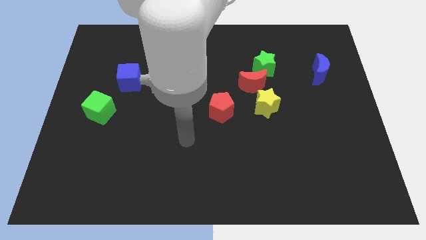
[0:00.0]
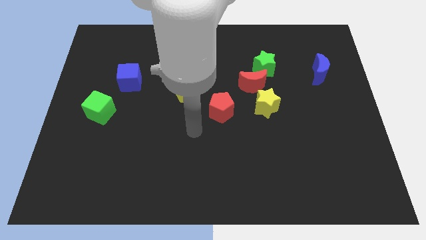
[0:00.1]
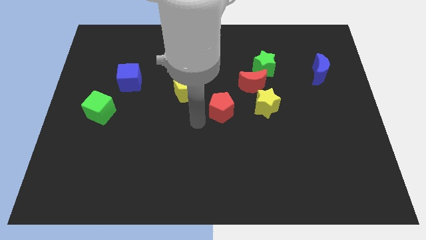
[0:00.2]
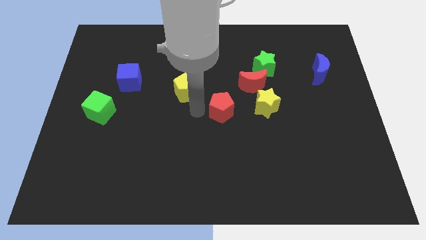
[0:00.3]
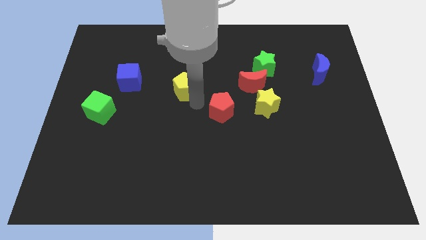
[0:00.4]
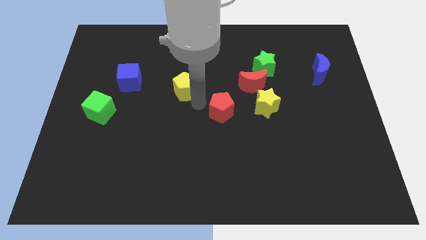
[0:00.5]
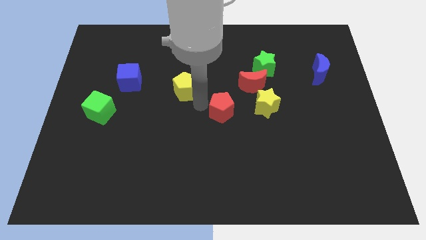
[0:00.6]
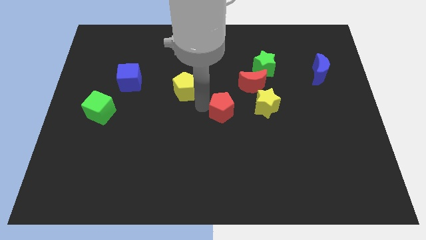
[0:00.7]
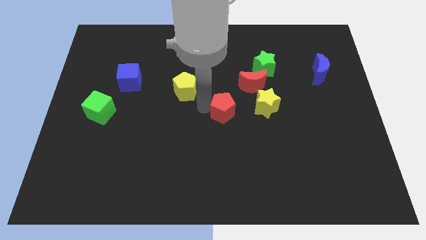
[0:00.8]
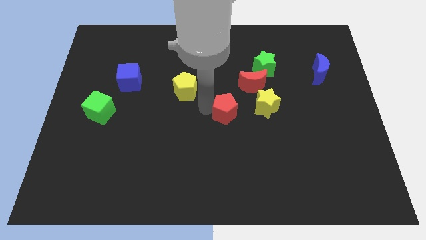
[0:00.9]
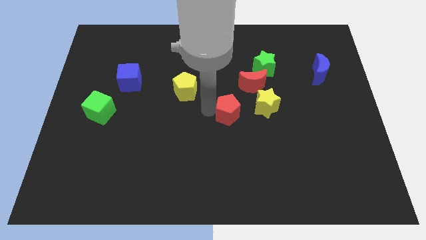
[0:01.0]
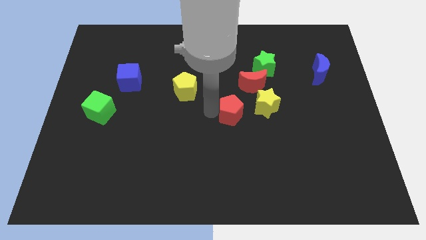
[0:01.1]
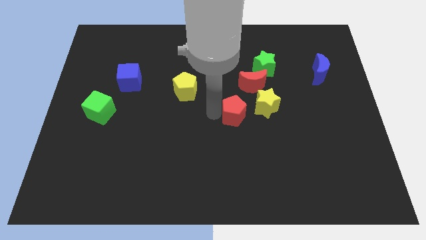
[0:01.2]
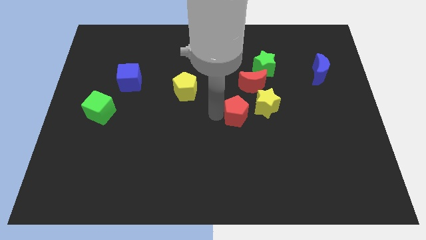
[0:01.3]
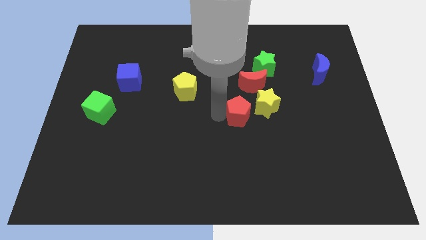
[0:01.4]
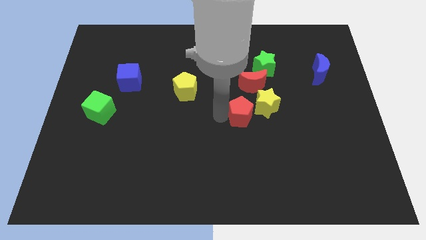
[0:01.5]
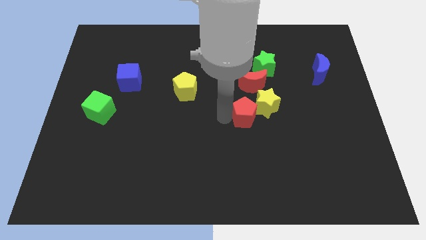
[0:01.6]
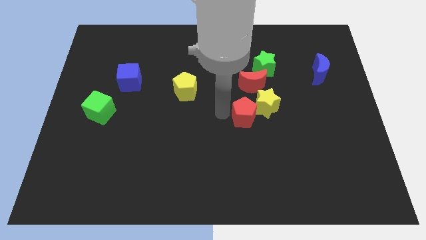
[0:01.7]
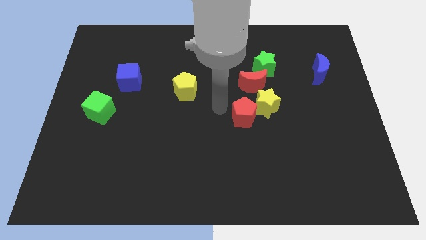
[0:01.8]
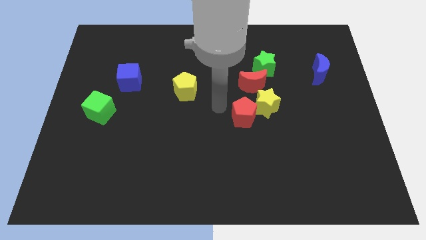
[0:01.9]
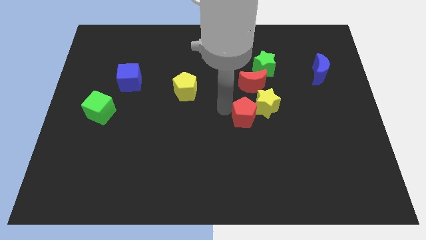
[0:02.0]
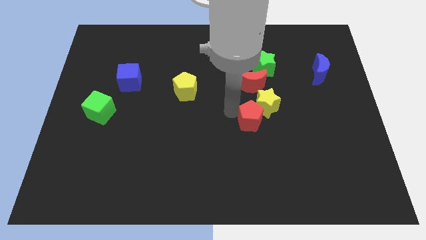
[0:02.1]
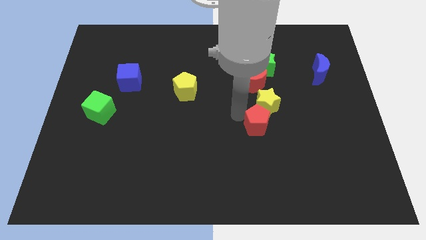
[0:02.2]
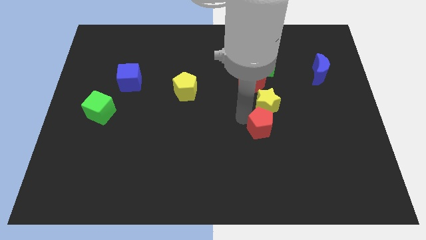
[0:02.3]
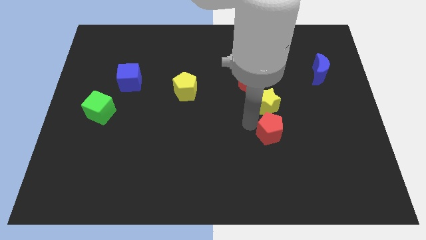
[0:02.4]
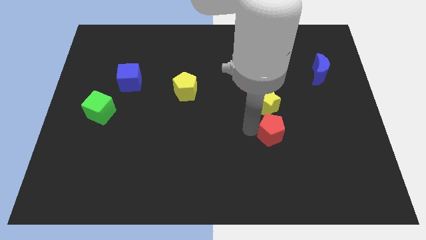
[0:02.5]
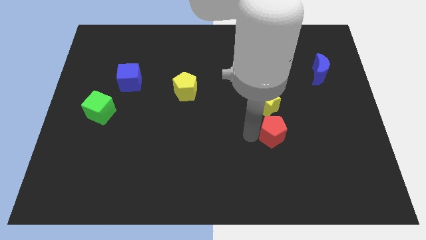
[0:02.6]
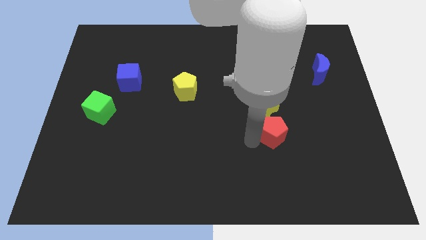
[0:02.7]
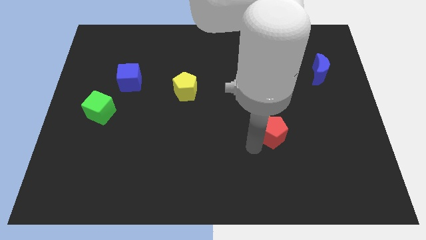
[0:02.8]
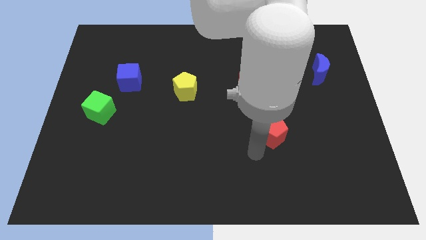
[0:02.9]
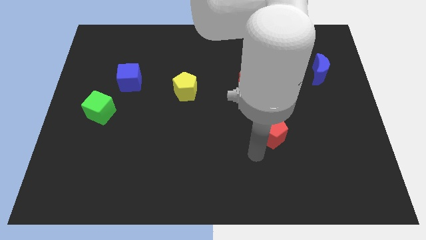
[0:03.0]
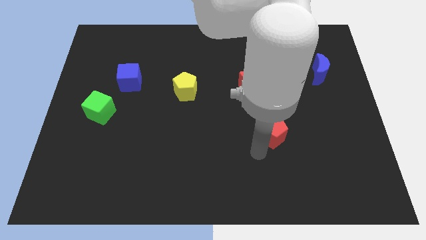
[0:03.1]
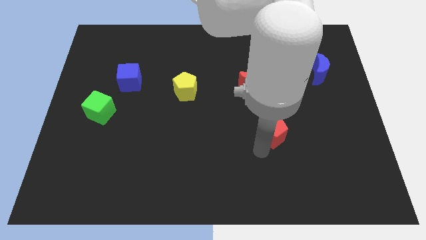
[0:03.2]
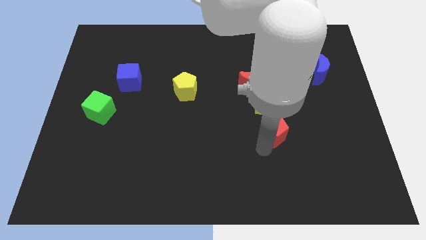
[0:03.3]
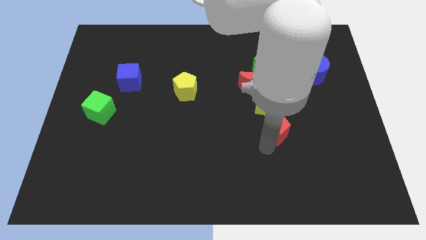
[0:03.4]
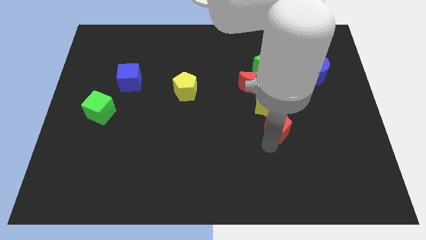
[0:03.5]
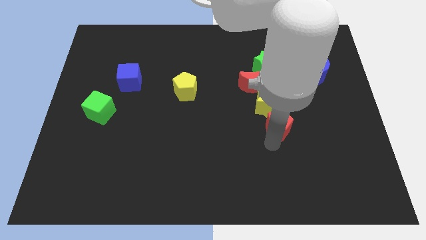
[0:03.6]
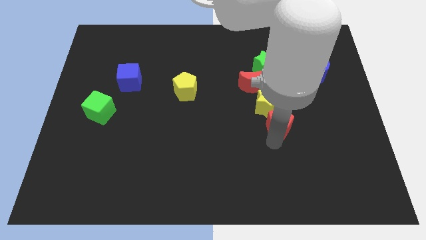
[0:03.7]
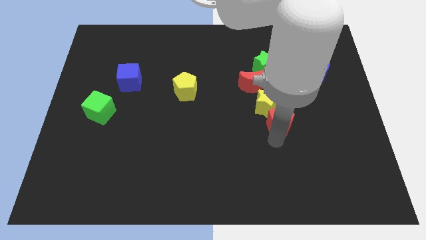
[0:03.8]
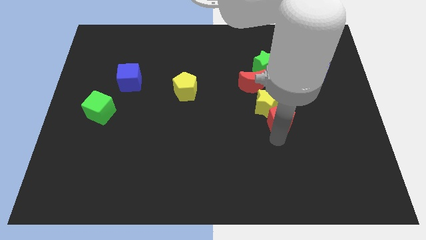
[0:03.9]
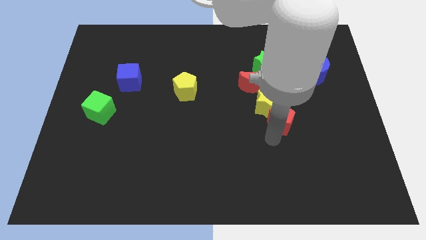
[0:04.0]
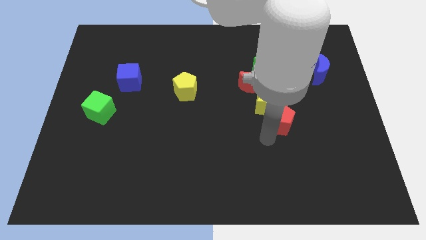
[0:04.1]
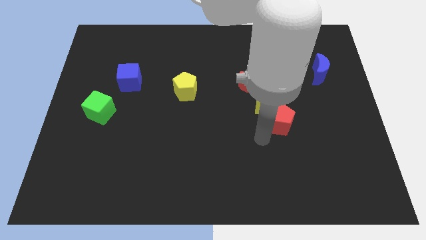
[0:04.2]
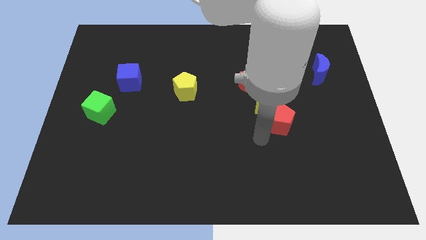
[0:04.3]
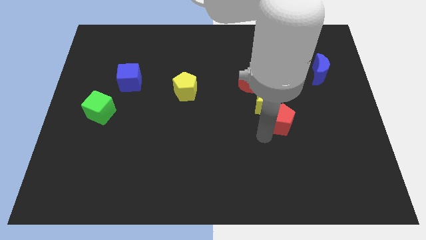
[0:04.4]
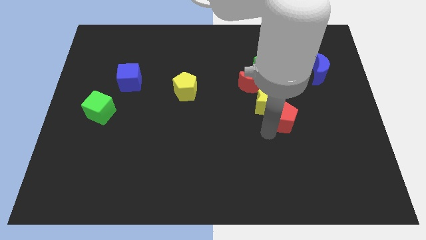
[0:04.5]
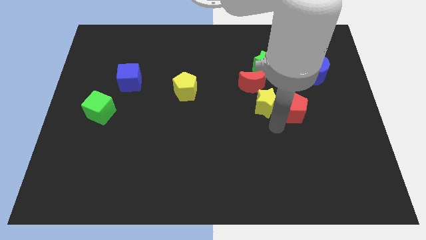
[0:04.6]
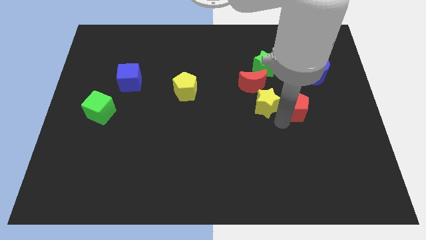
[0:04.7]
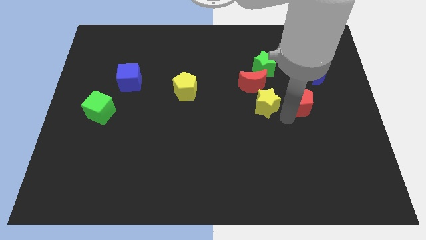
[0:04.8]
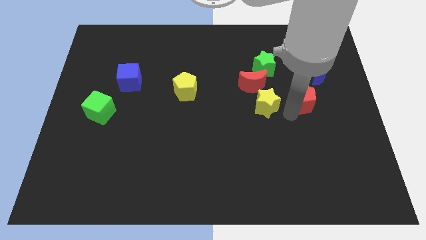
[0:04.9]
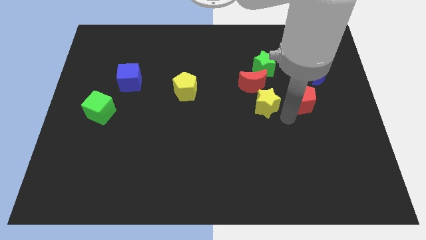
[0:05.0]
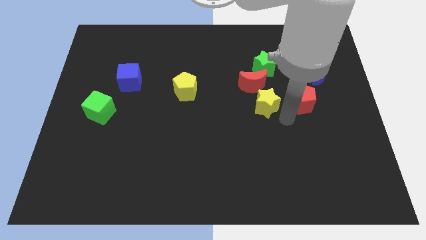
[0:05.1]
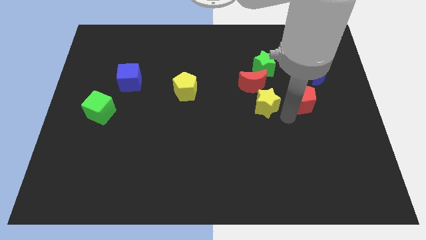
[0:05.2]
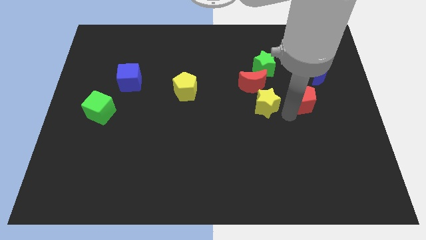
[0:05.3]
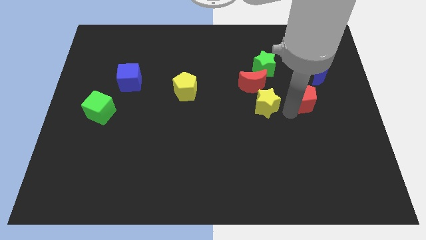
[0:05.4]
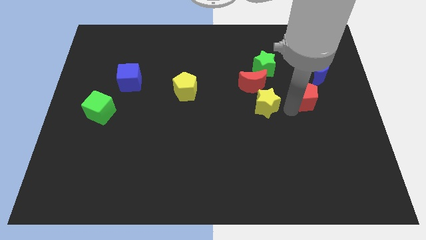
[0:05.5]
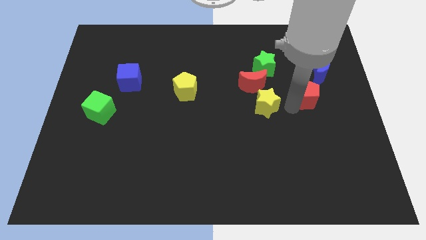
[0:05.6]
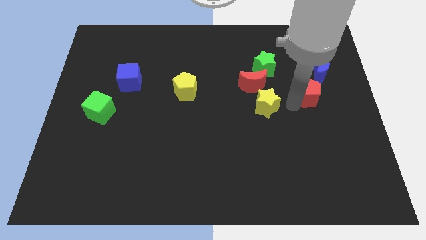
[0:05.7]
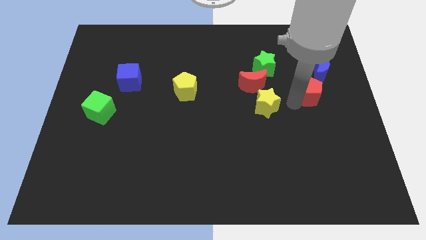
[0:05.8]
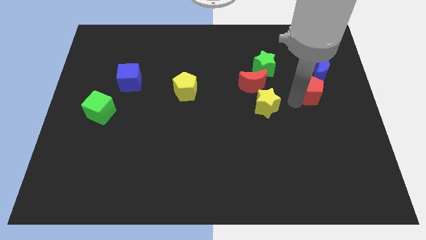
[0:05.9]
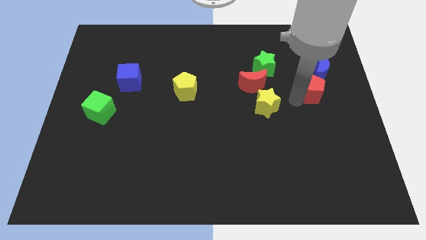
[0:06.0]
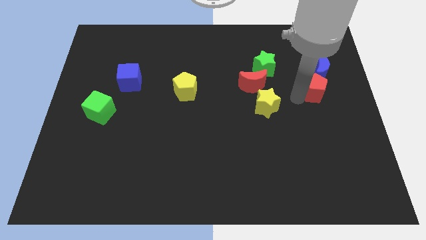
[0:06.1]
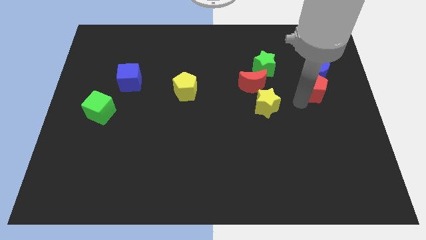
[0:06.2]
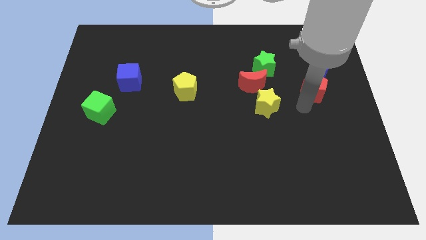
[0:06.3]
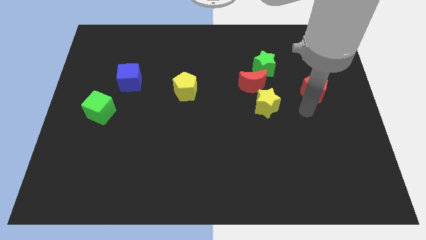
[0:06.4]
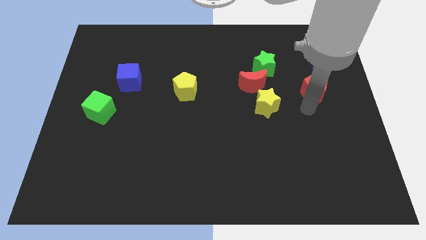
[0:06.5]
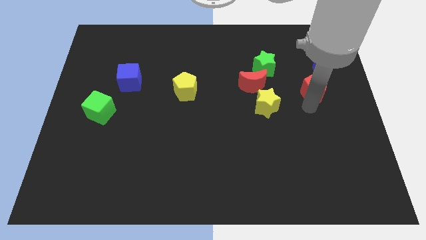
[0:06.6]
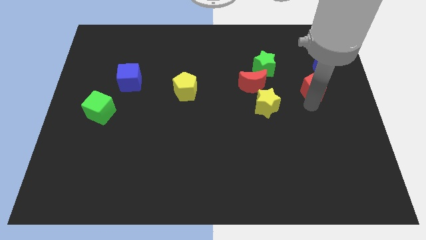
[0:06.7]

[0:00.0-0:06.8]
put the red pentagon to the blue moon

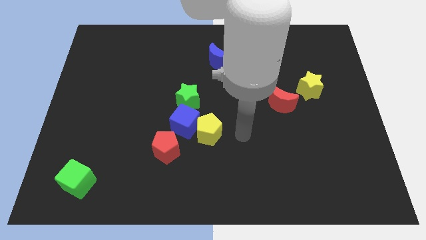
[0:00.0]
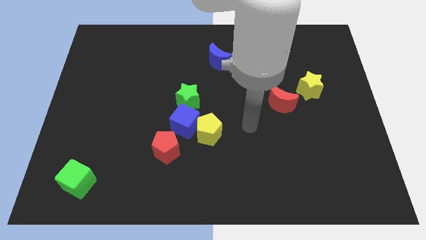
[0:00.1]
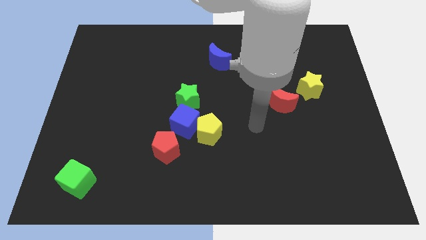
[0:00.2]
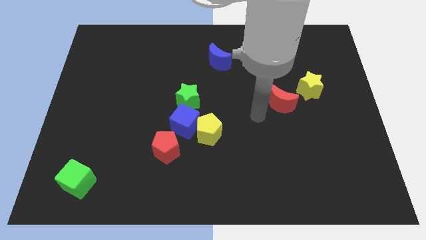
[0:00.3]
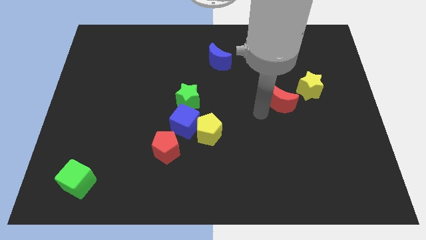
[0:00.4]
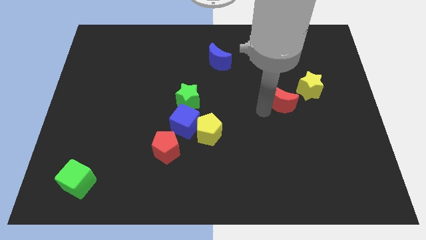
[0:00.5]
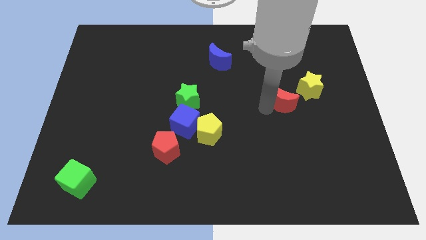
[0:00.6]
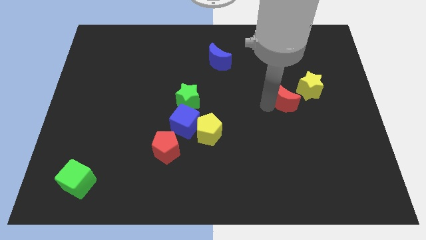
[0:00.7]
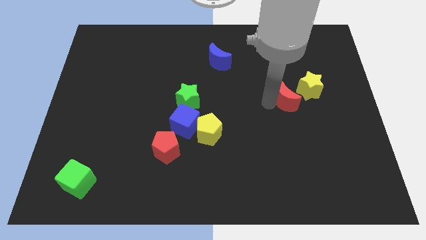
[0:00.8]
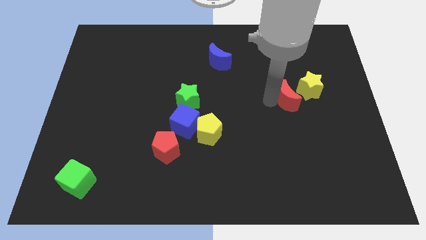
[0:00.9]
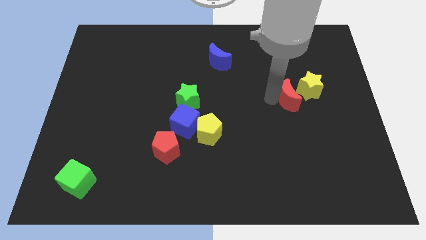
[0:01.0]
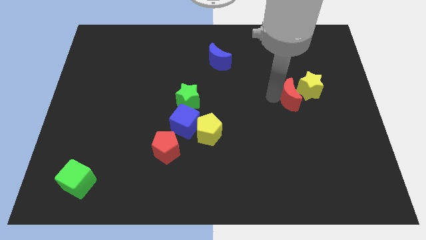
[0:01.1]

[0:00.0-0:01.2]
put the red moon next to the yellow star
